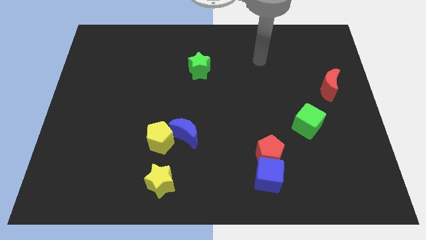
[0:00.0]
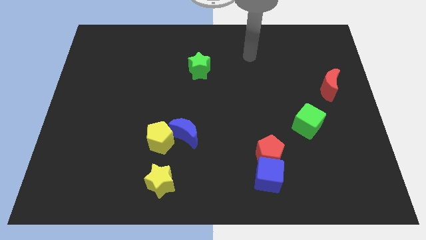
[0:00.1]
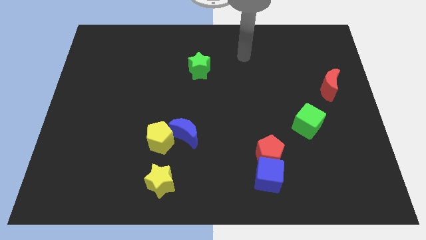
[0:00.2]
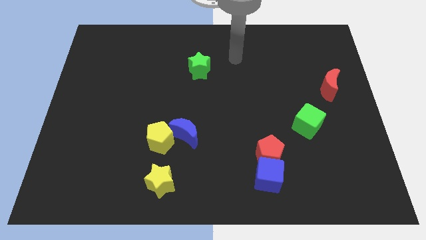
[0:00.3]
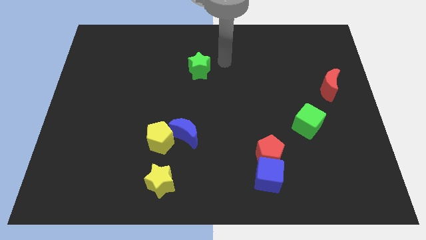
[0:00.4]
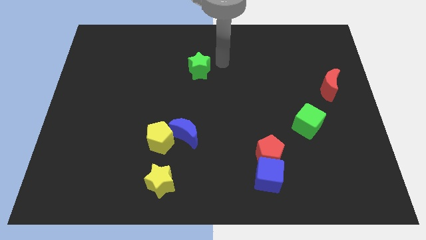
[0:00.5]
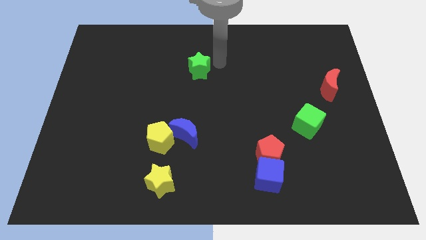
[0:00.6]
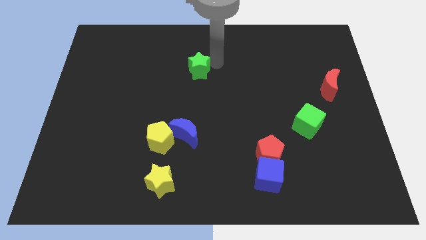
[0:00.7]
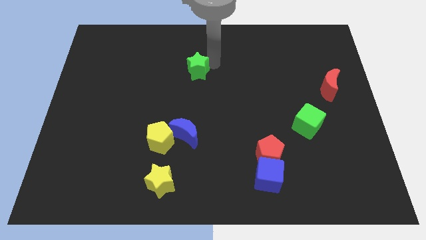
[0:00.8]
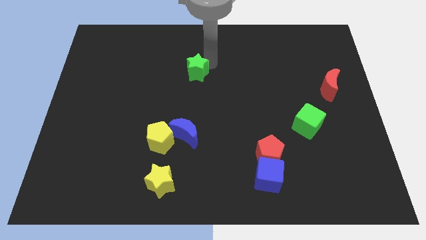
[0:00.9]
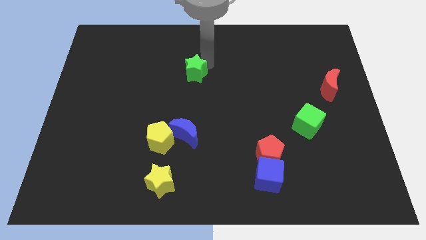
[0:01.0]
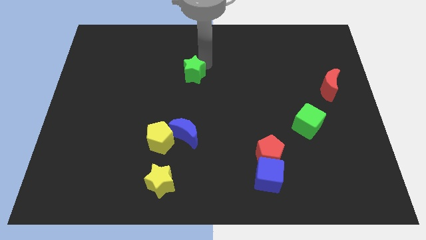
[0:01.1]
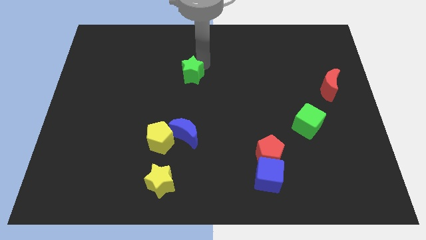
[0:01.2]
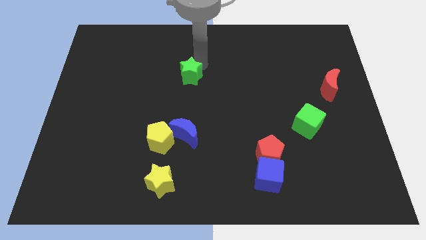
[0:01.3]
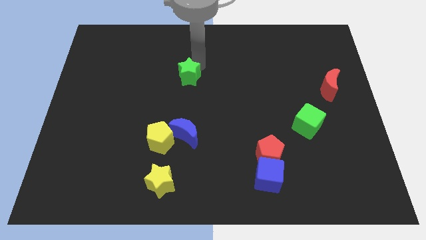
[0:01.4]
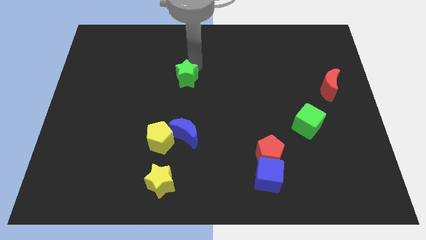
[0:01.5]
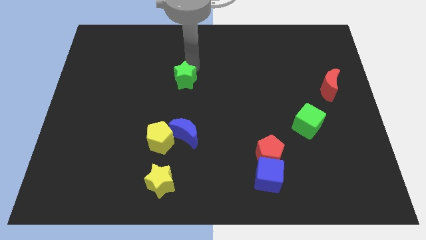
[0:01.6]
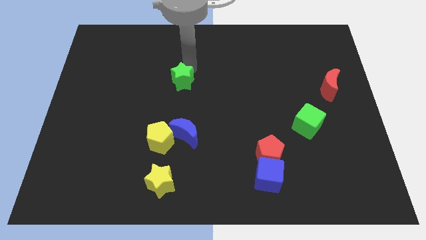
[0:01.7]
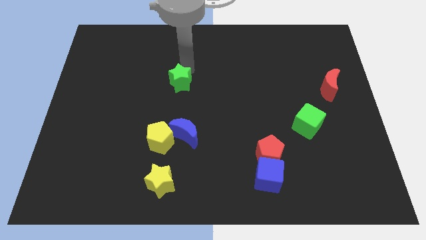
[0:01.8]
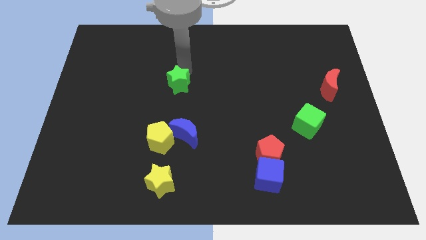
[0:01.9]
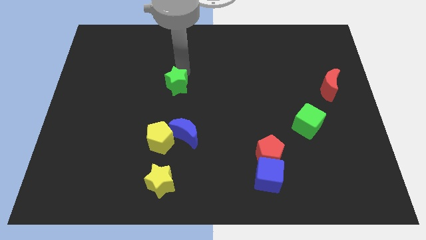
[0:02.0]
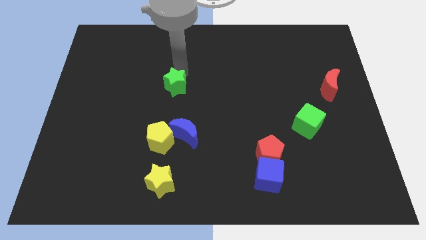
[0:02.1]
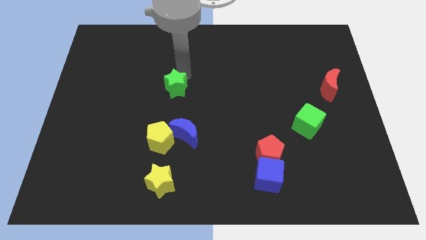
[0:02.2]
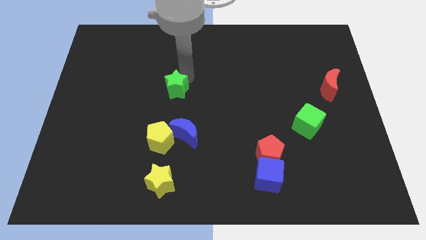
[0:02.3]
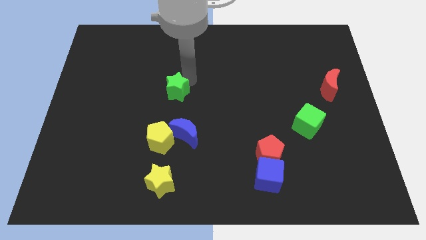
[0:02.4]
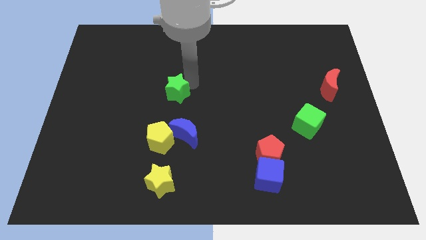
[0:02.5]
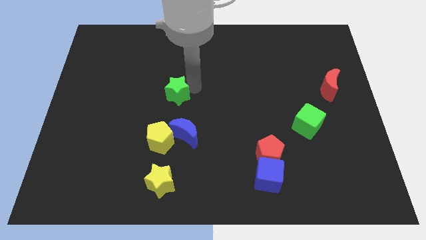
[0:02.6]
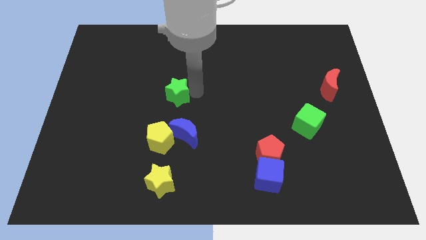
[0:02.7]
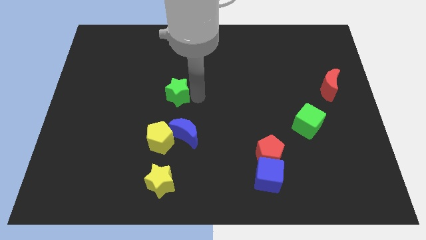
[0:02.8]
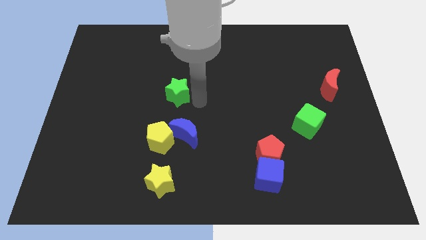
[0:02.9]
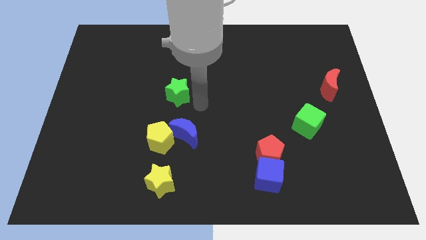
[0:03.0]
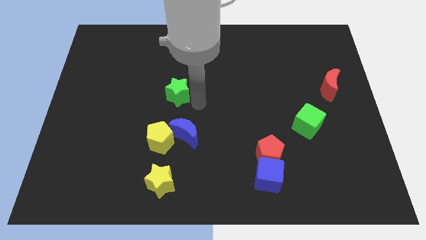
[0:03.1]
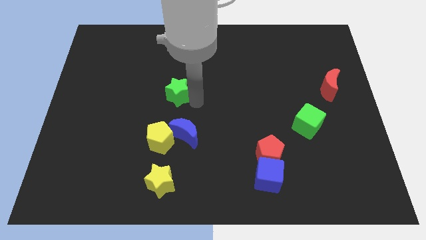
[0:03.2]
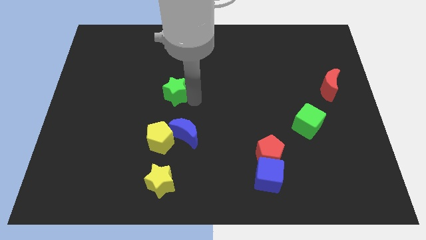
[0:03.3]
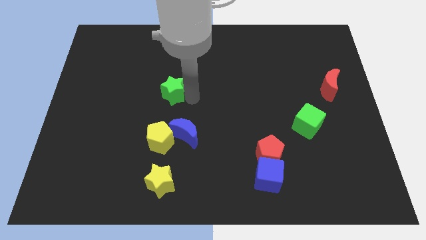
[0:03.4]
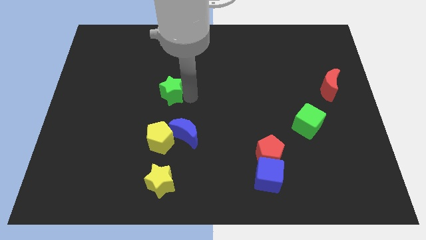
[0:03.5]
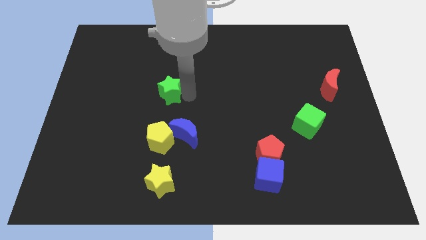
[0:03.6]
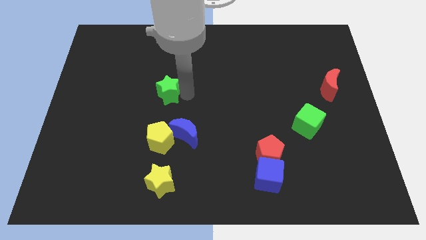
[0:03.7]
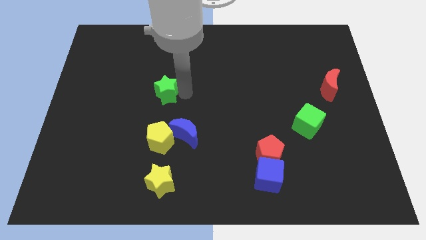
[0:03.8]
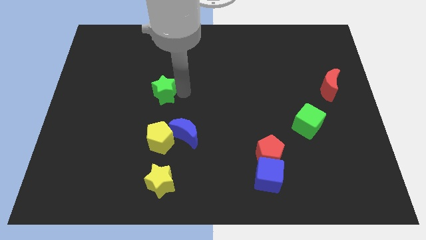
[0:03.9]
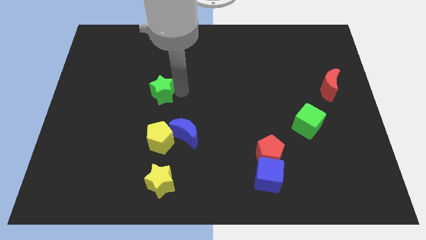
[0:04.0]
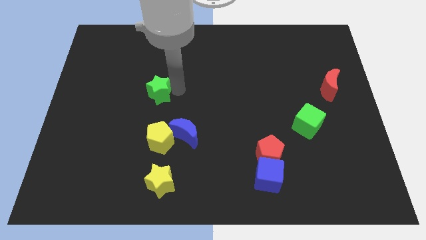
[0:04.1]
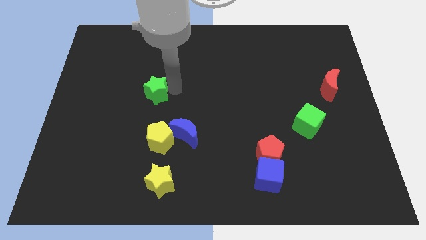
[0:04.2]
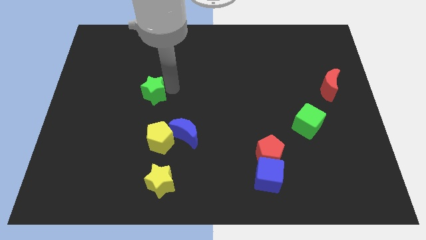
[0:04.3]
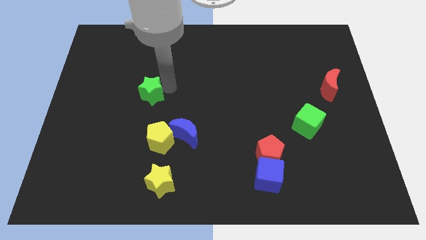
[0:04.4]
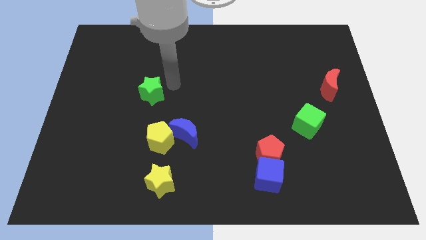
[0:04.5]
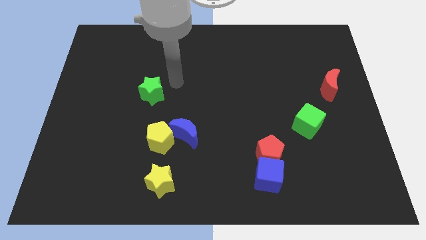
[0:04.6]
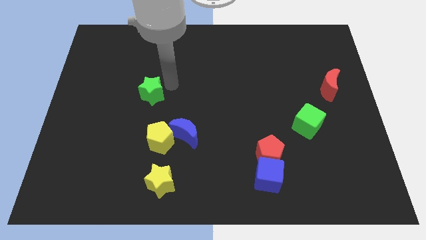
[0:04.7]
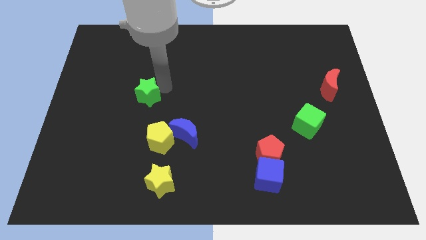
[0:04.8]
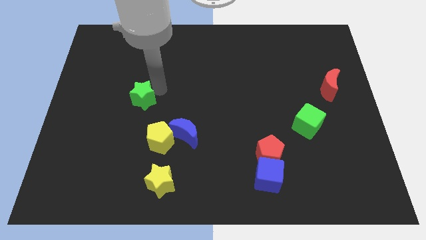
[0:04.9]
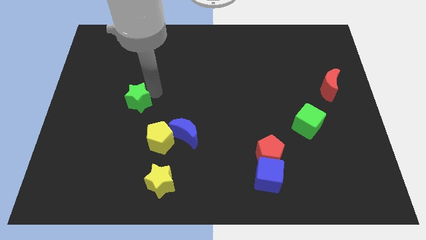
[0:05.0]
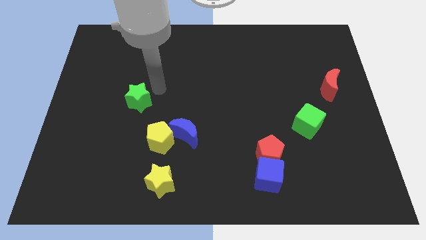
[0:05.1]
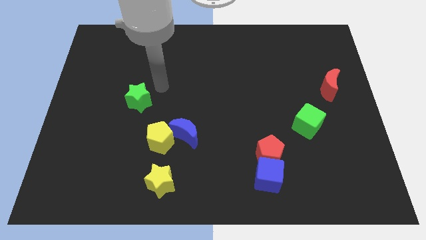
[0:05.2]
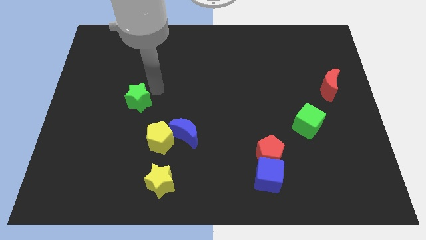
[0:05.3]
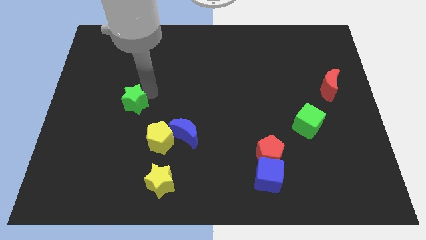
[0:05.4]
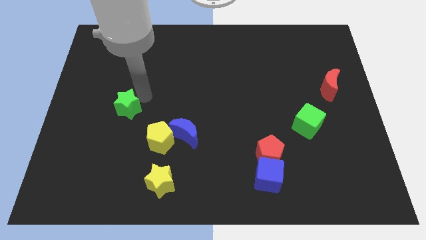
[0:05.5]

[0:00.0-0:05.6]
slide the green star downwards and then left

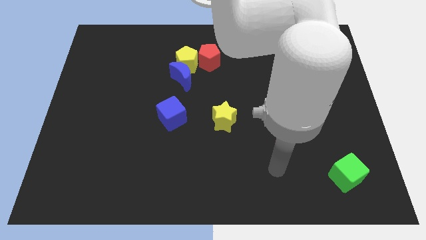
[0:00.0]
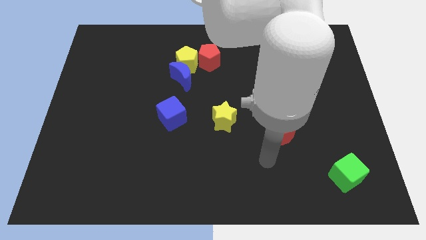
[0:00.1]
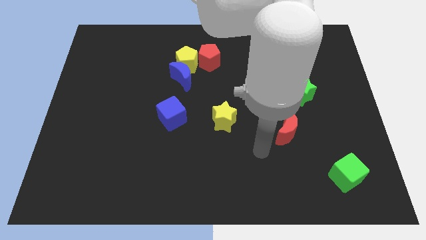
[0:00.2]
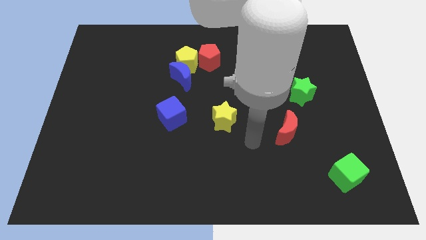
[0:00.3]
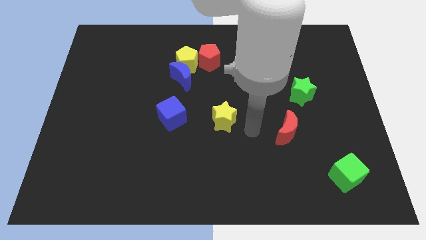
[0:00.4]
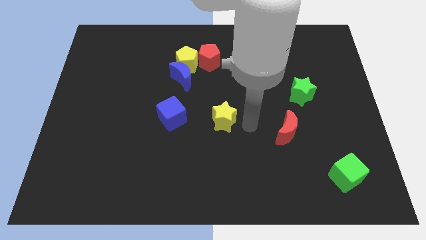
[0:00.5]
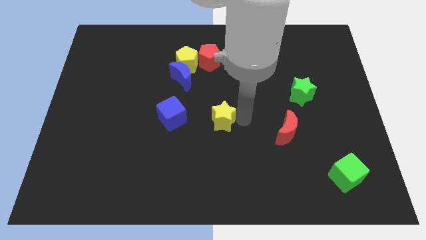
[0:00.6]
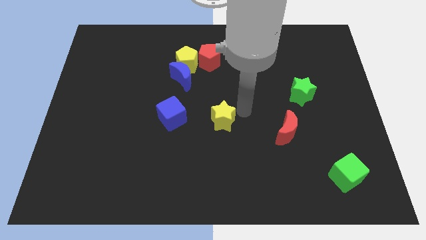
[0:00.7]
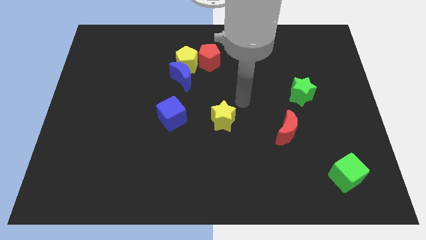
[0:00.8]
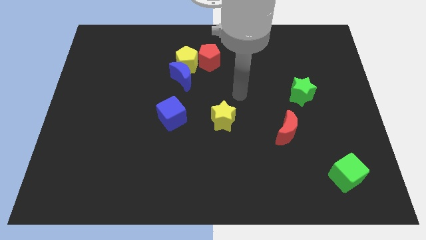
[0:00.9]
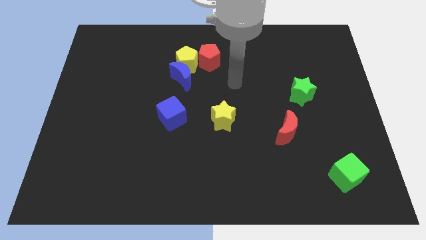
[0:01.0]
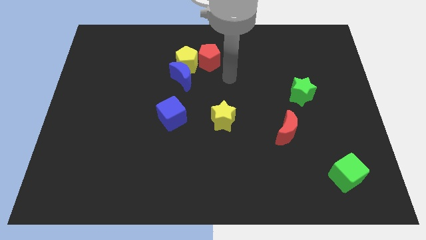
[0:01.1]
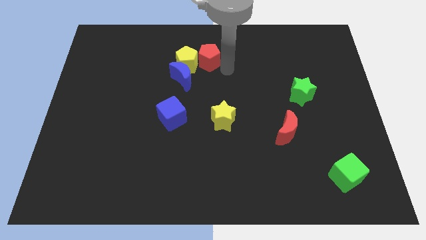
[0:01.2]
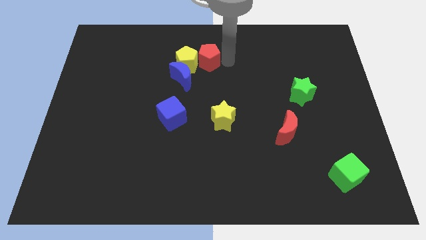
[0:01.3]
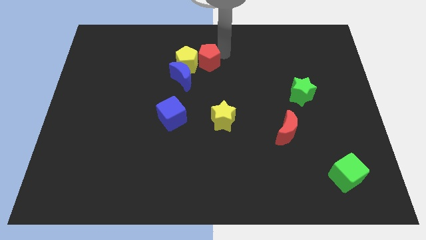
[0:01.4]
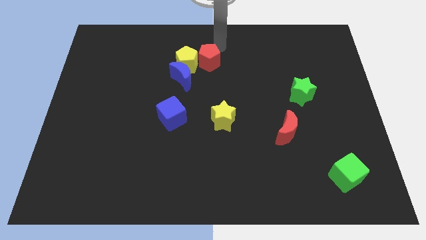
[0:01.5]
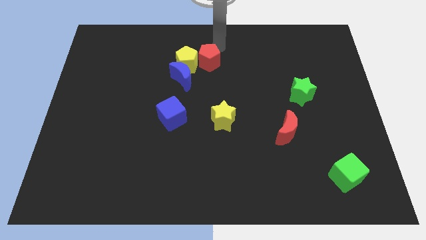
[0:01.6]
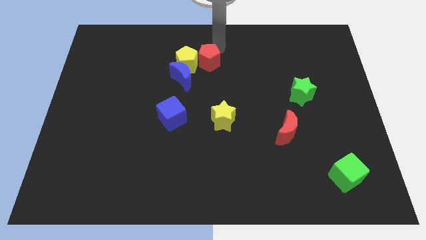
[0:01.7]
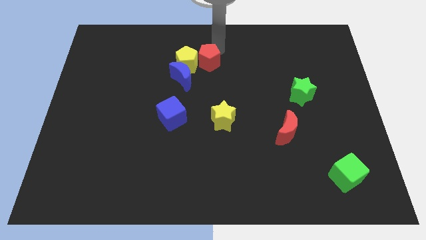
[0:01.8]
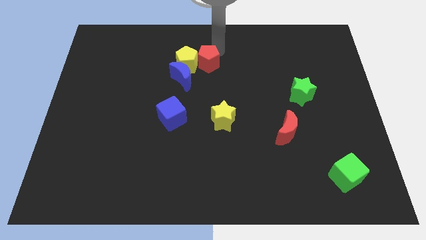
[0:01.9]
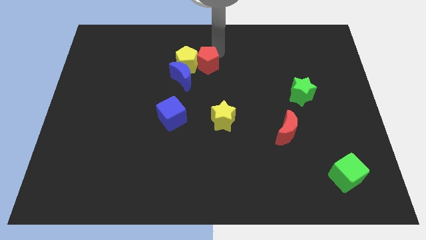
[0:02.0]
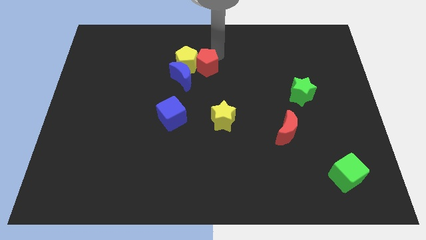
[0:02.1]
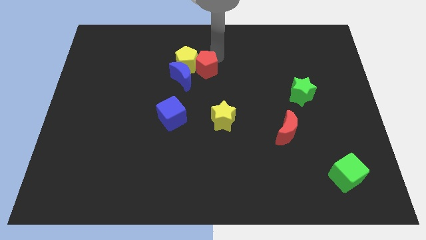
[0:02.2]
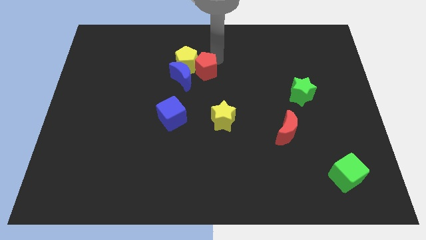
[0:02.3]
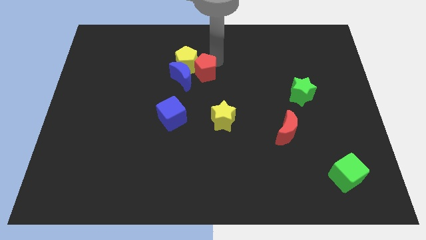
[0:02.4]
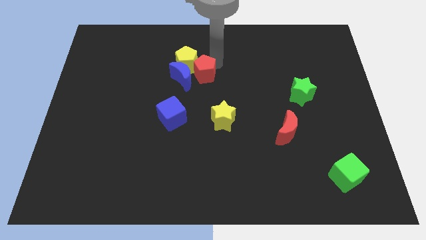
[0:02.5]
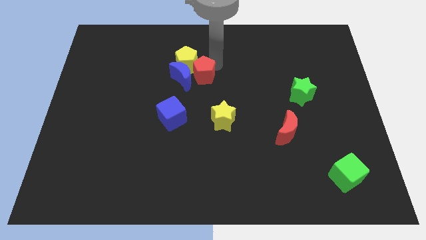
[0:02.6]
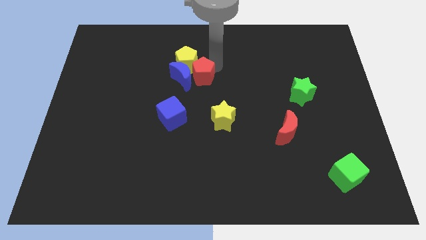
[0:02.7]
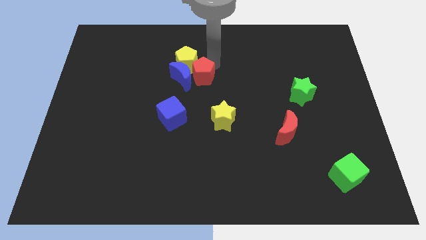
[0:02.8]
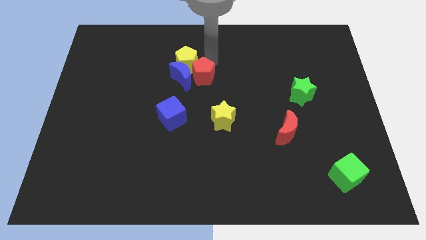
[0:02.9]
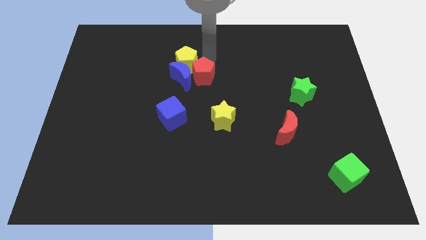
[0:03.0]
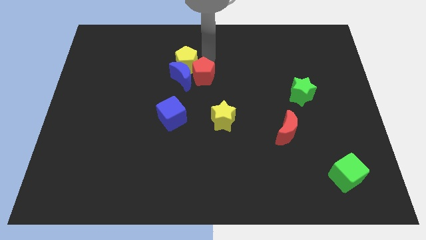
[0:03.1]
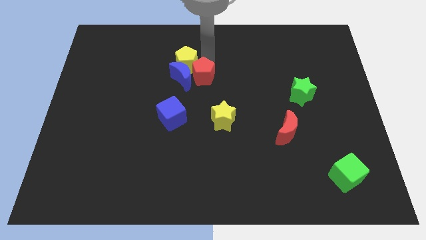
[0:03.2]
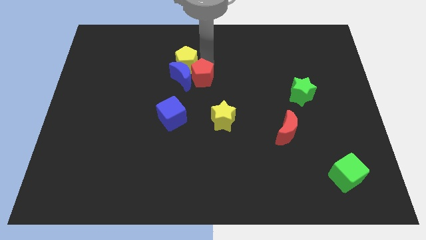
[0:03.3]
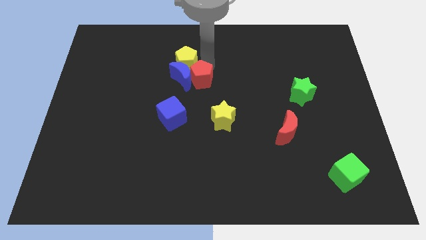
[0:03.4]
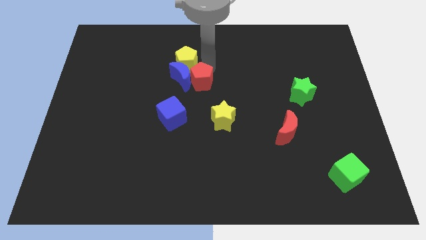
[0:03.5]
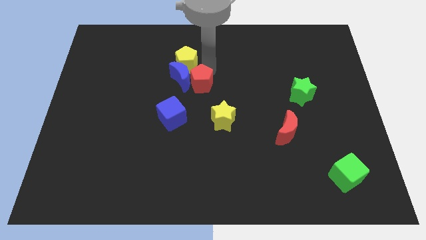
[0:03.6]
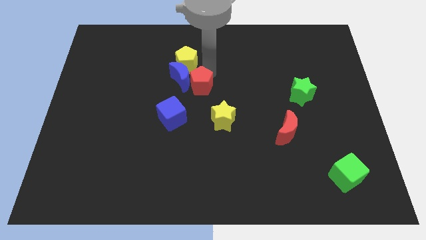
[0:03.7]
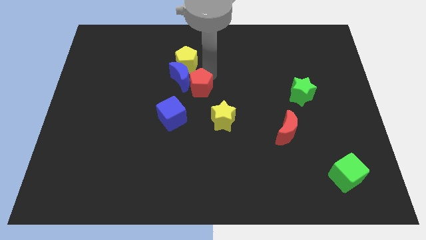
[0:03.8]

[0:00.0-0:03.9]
push the red pentagon a little diagonally down and left
